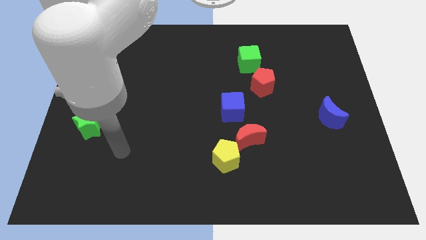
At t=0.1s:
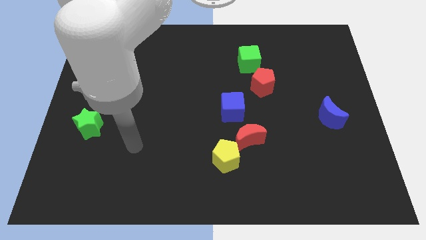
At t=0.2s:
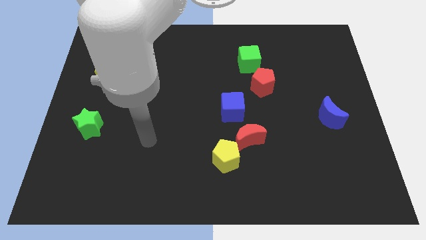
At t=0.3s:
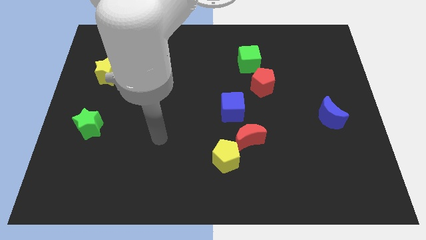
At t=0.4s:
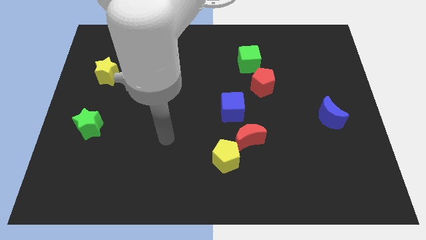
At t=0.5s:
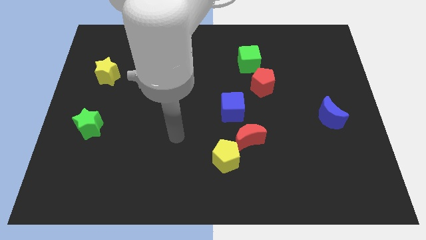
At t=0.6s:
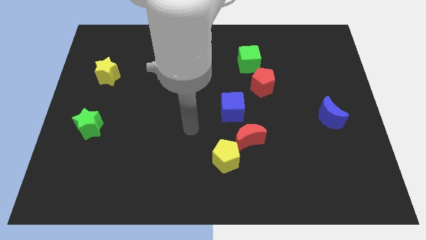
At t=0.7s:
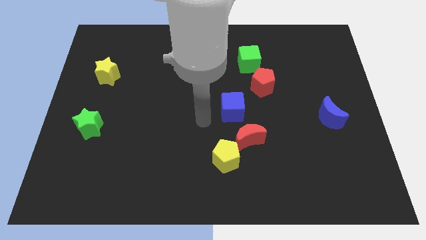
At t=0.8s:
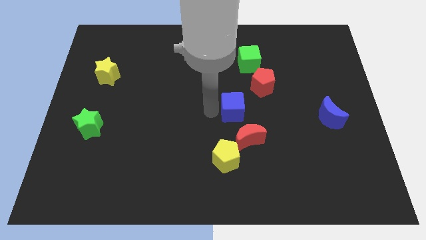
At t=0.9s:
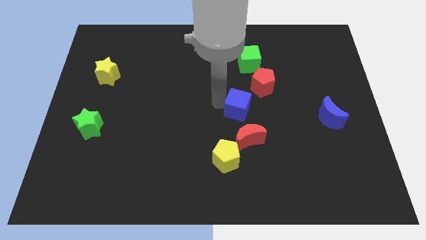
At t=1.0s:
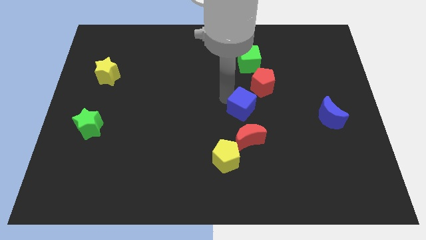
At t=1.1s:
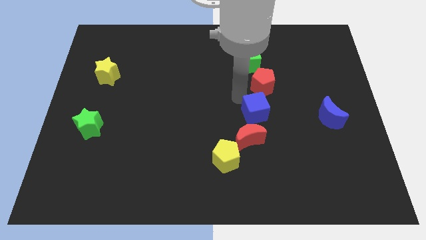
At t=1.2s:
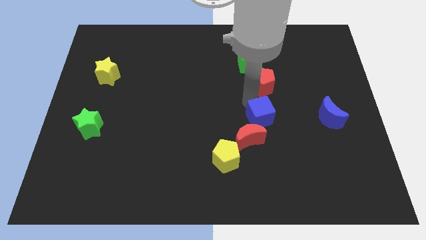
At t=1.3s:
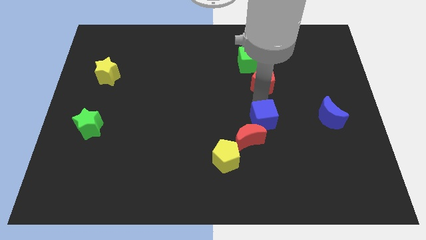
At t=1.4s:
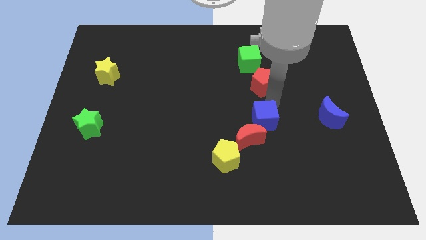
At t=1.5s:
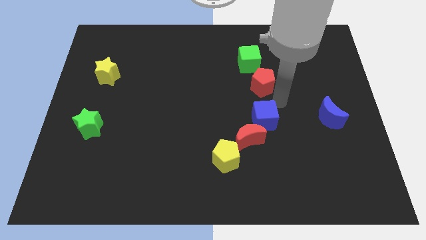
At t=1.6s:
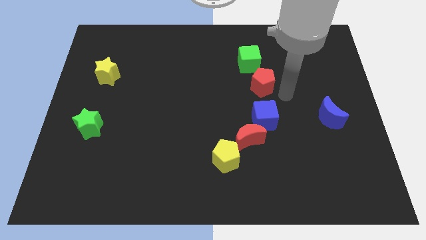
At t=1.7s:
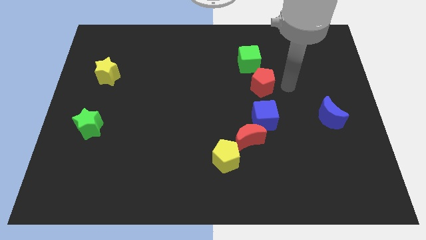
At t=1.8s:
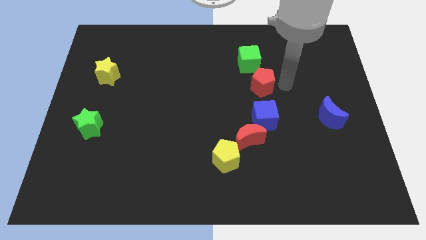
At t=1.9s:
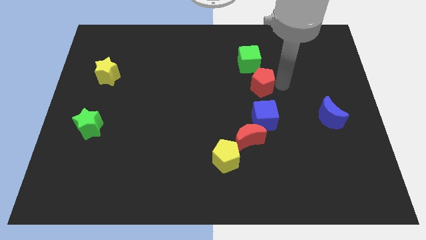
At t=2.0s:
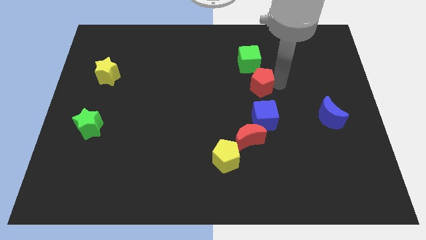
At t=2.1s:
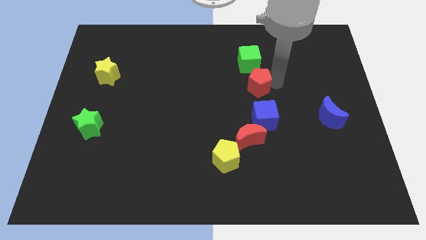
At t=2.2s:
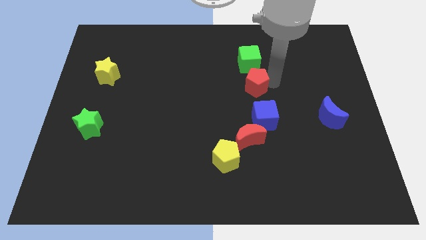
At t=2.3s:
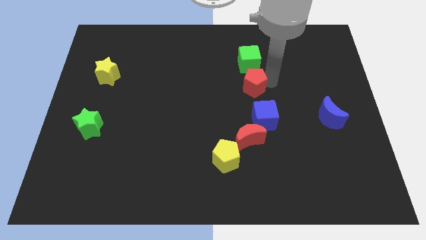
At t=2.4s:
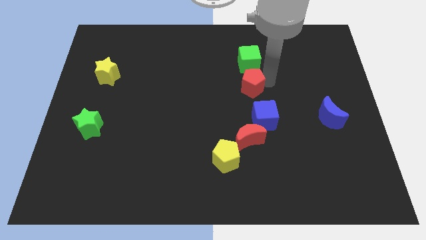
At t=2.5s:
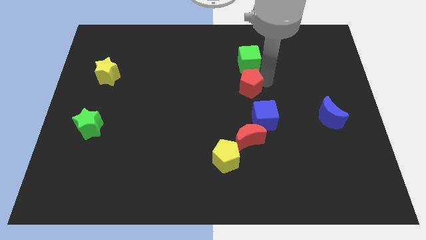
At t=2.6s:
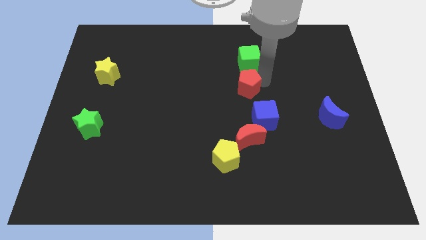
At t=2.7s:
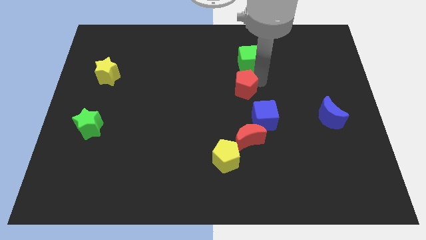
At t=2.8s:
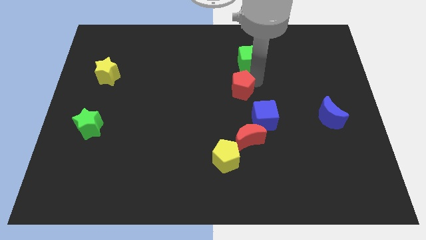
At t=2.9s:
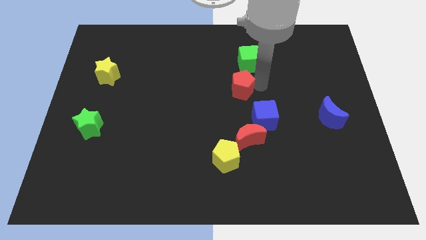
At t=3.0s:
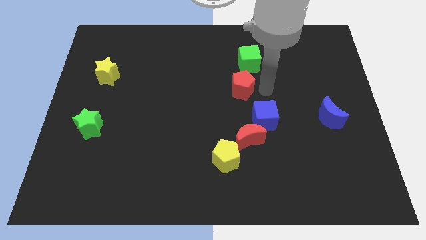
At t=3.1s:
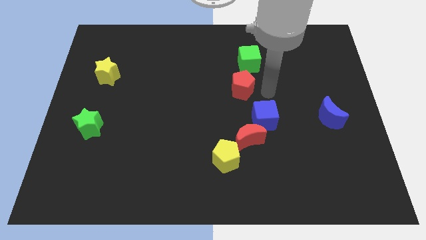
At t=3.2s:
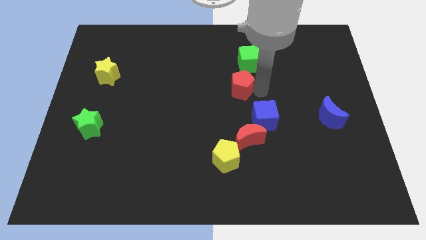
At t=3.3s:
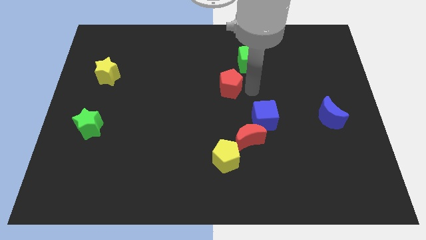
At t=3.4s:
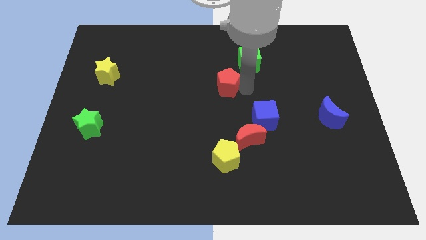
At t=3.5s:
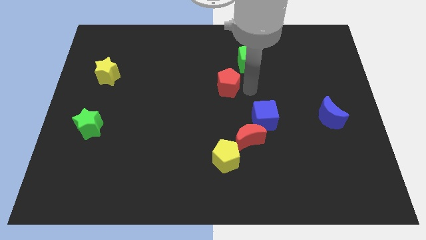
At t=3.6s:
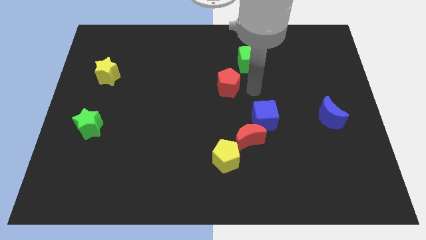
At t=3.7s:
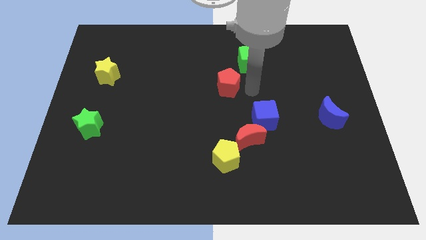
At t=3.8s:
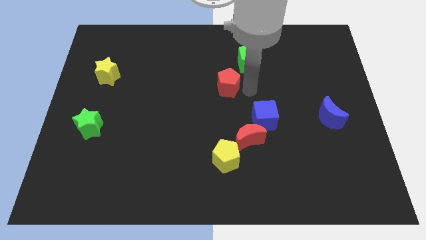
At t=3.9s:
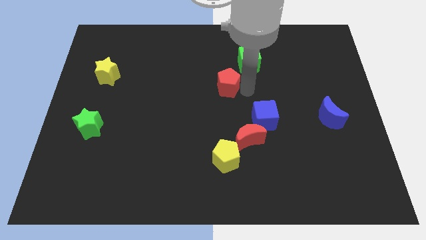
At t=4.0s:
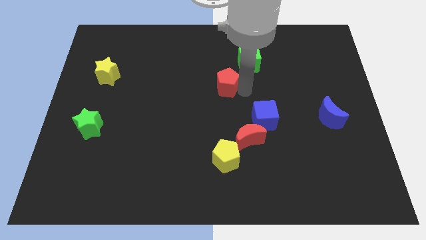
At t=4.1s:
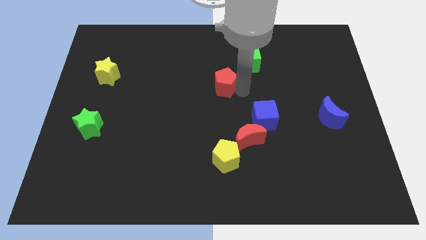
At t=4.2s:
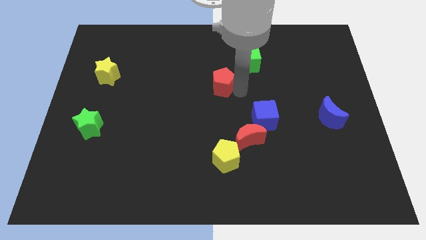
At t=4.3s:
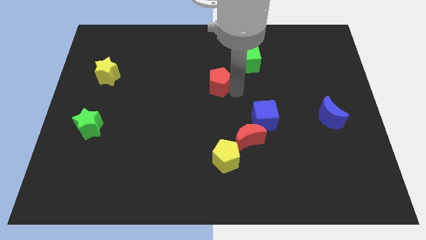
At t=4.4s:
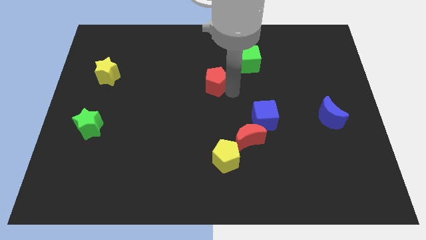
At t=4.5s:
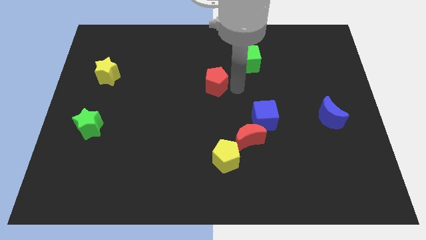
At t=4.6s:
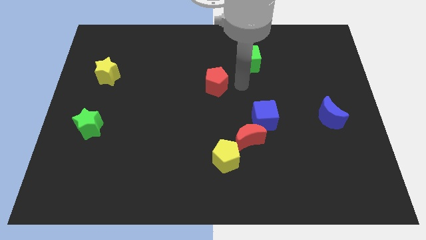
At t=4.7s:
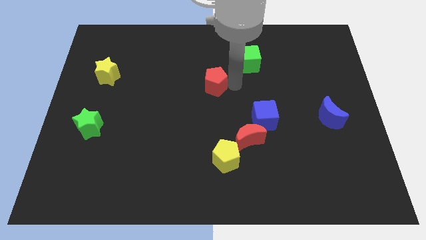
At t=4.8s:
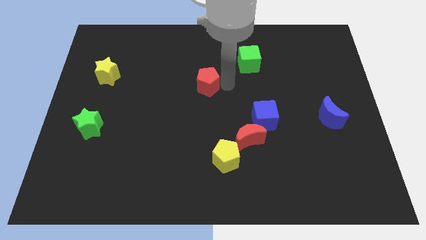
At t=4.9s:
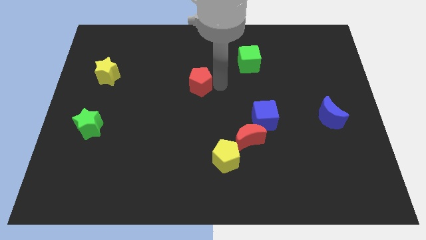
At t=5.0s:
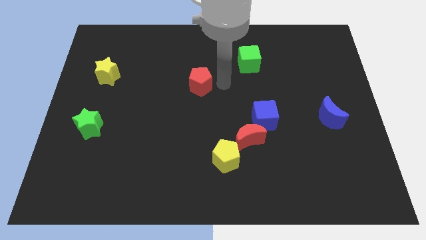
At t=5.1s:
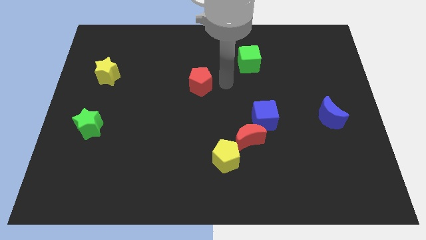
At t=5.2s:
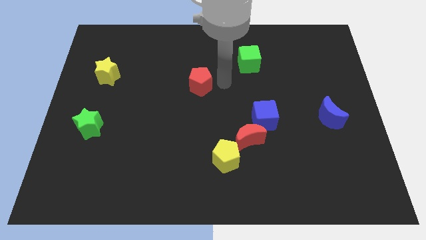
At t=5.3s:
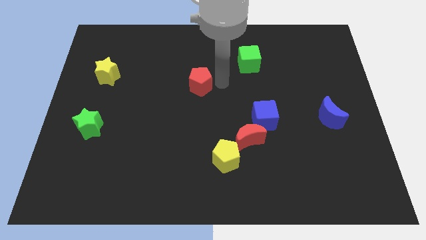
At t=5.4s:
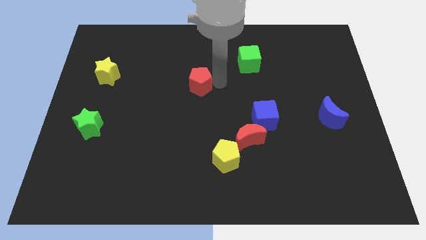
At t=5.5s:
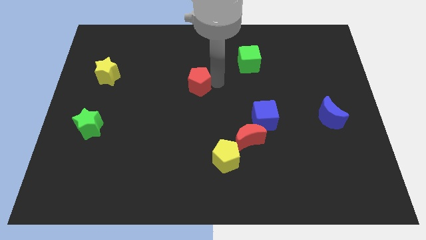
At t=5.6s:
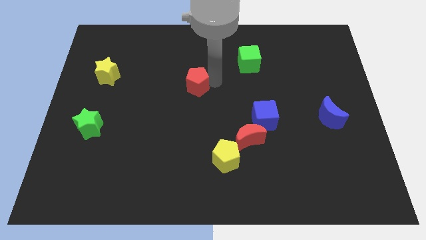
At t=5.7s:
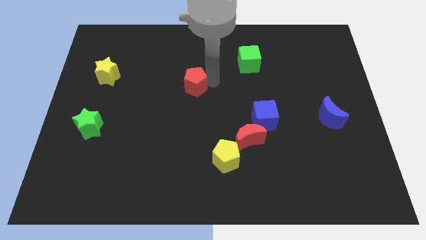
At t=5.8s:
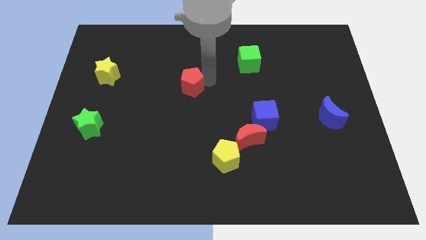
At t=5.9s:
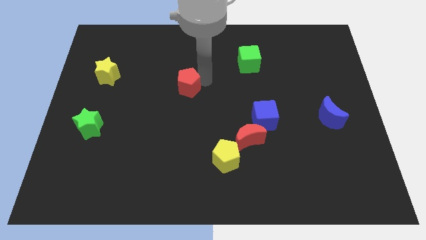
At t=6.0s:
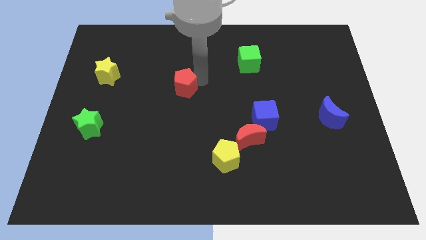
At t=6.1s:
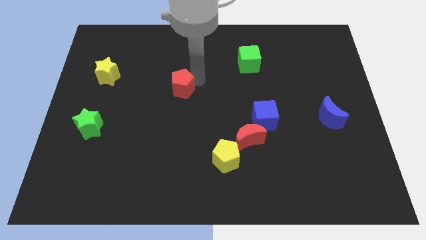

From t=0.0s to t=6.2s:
move the red pentagon to the left

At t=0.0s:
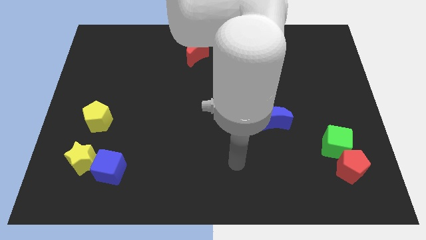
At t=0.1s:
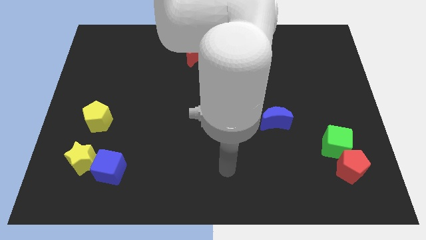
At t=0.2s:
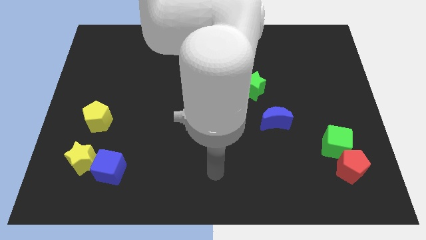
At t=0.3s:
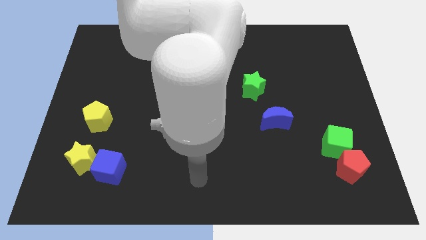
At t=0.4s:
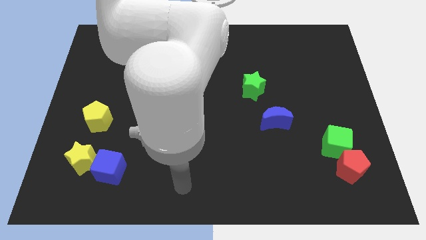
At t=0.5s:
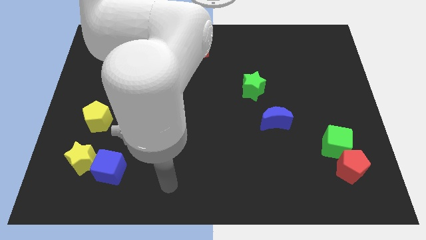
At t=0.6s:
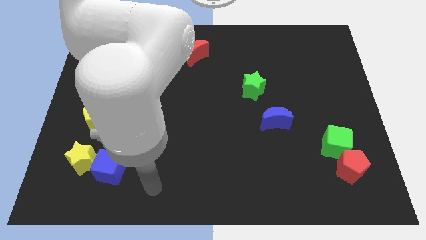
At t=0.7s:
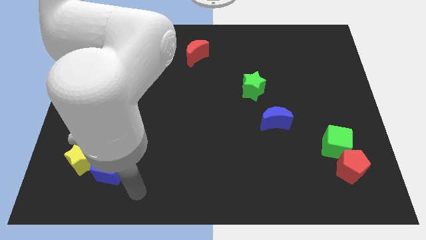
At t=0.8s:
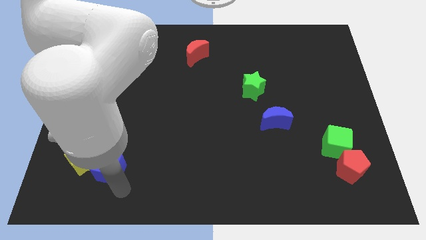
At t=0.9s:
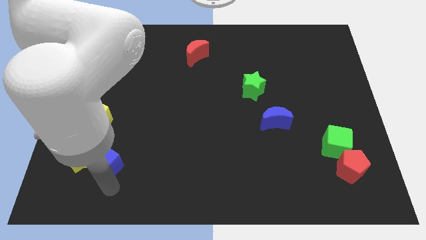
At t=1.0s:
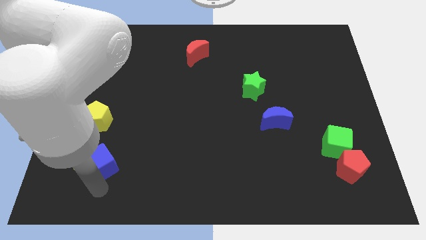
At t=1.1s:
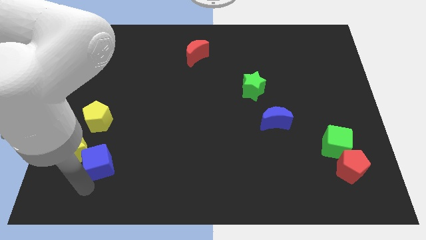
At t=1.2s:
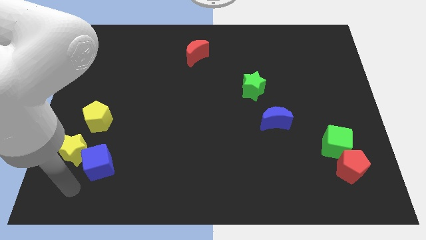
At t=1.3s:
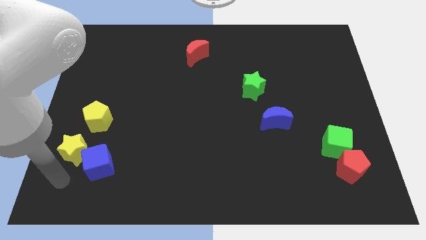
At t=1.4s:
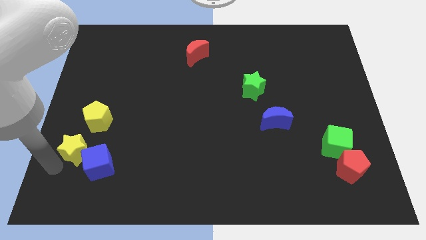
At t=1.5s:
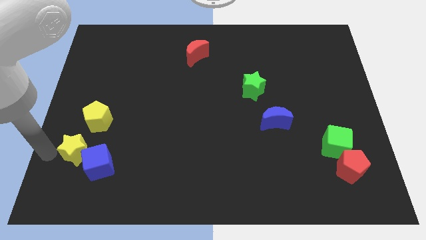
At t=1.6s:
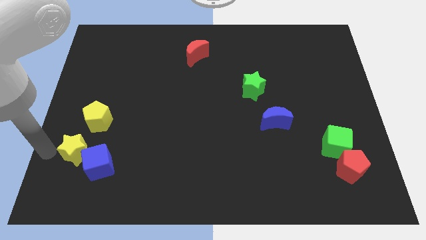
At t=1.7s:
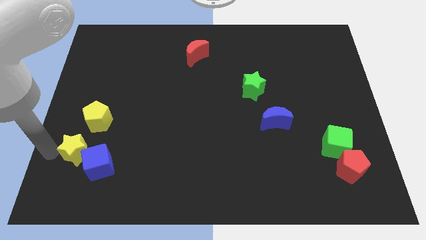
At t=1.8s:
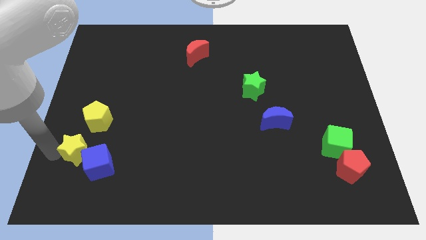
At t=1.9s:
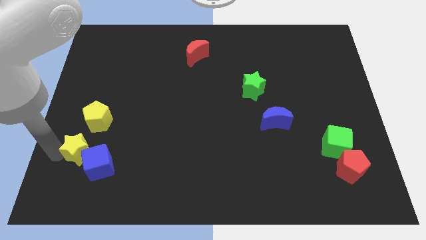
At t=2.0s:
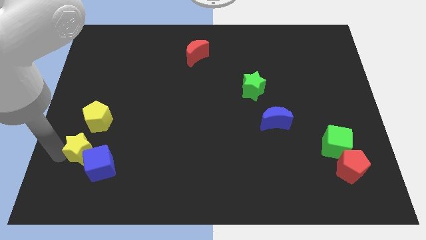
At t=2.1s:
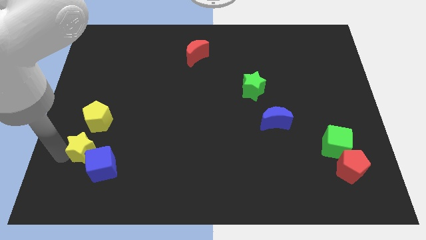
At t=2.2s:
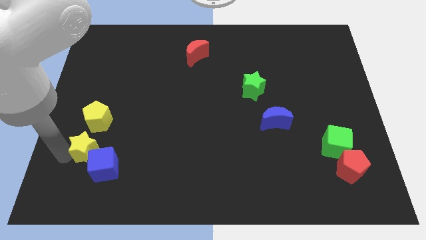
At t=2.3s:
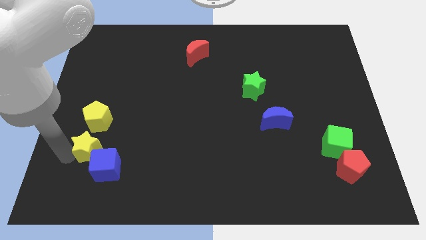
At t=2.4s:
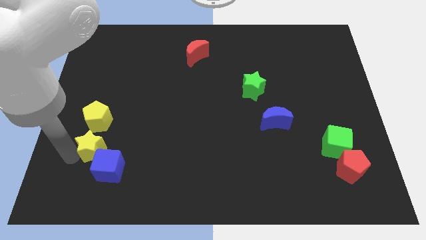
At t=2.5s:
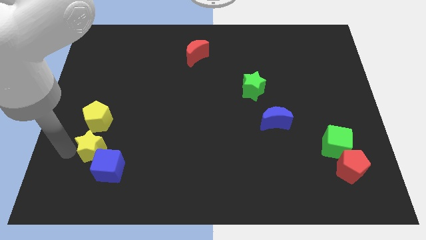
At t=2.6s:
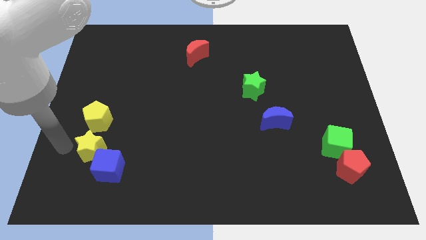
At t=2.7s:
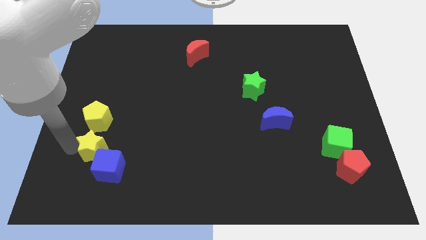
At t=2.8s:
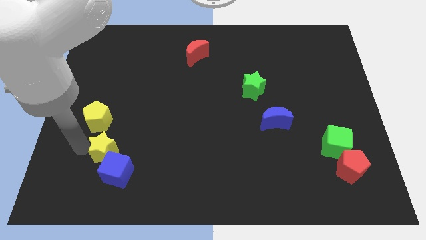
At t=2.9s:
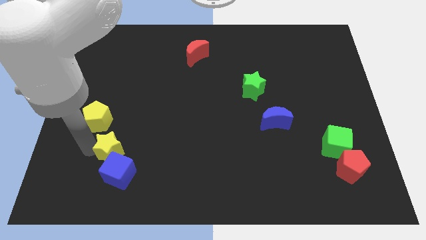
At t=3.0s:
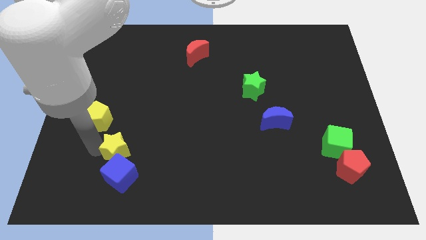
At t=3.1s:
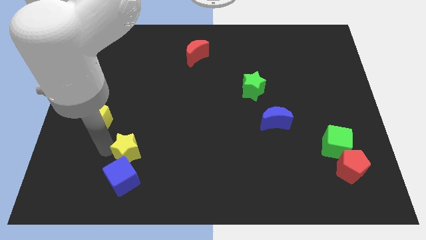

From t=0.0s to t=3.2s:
slightly push the yellow star to the right
